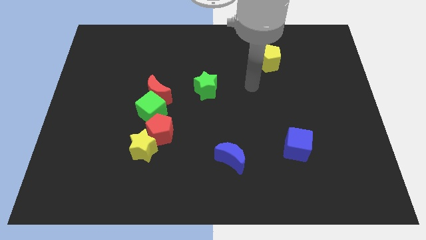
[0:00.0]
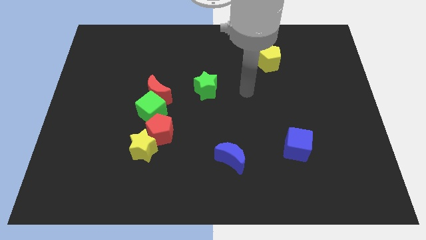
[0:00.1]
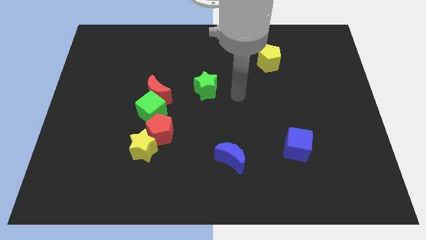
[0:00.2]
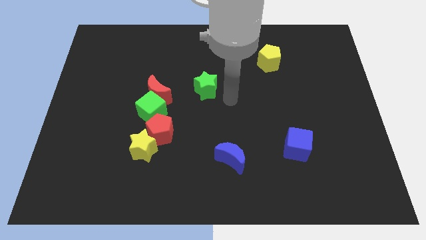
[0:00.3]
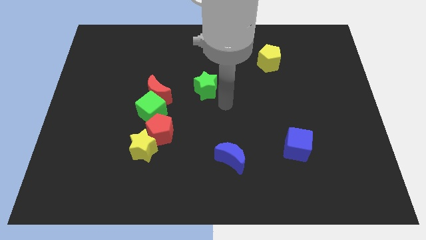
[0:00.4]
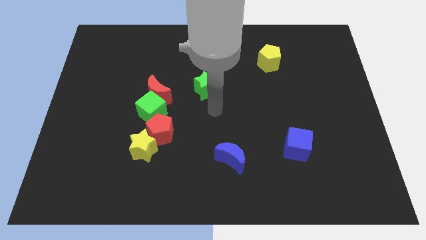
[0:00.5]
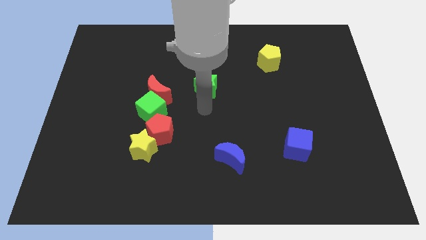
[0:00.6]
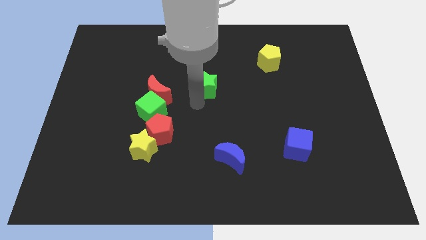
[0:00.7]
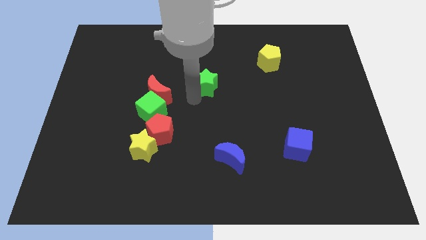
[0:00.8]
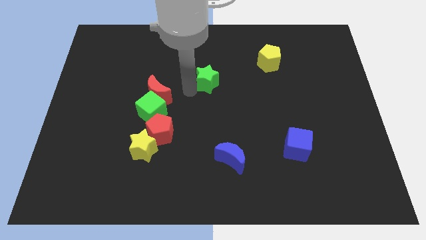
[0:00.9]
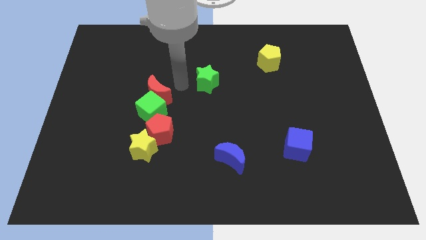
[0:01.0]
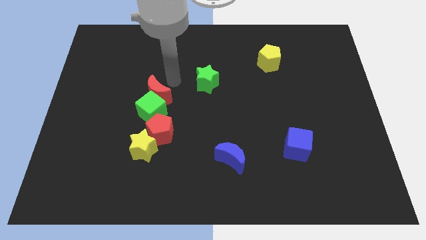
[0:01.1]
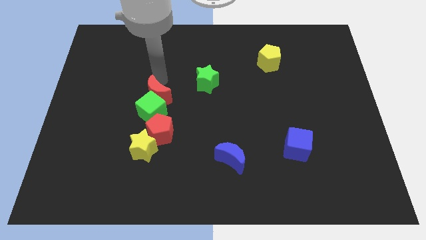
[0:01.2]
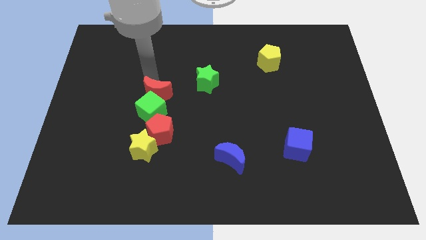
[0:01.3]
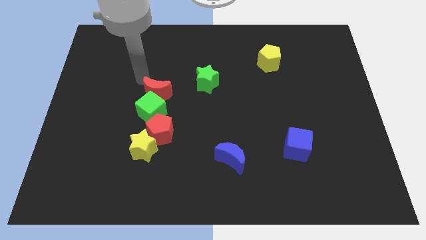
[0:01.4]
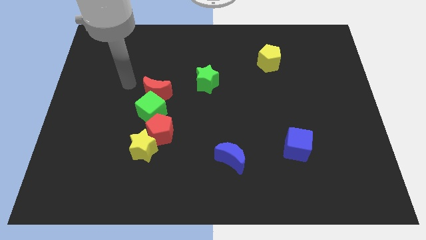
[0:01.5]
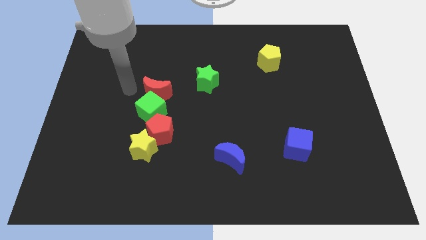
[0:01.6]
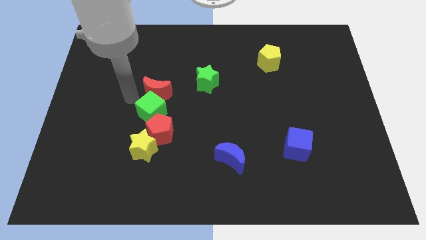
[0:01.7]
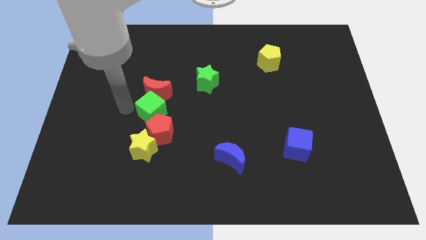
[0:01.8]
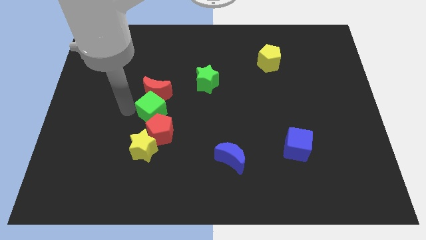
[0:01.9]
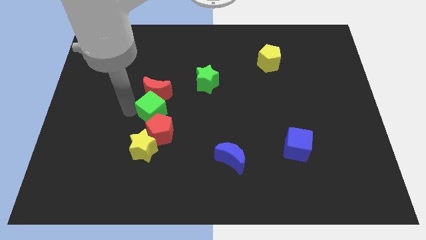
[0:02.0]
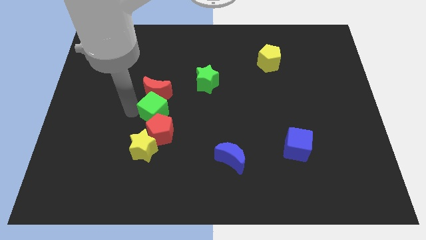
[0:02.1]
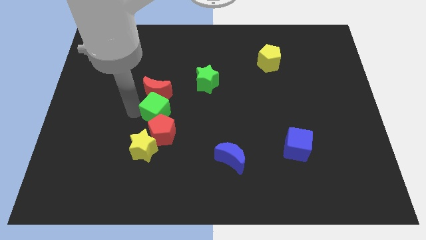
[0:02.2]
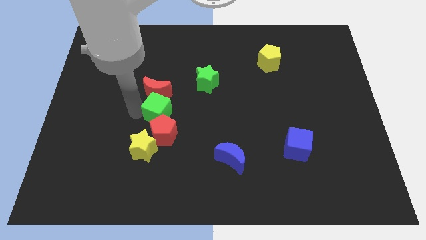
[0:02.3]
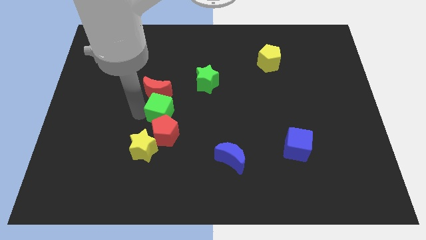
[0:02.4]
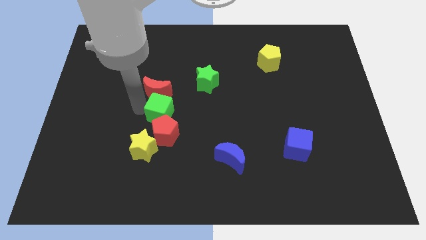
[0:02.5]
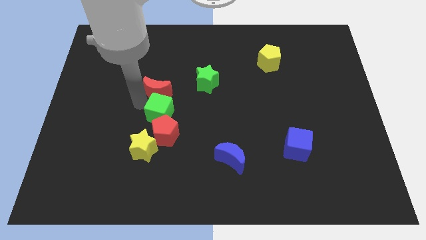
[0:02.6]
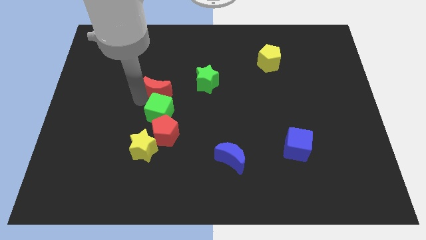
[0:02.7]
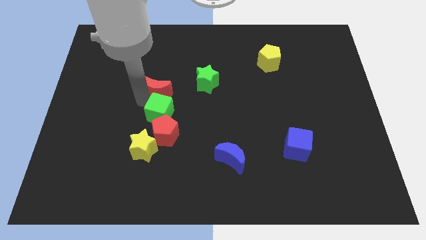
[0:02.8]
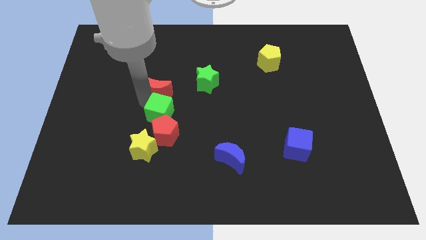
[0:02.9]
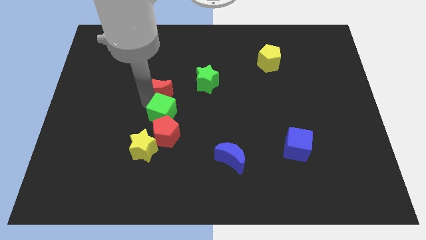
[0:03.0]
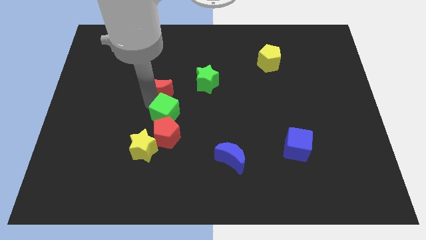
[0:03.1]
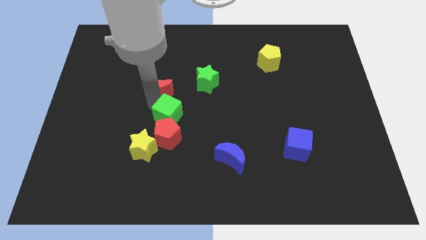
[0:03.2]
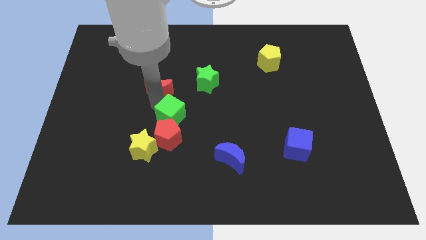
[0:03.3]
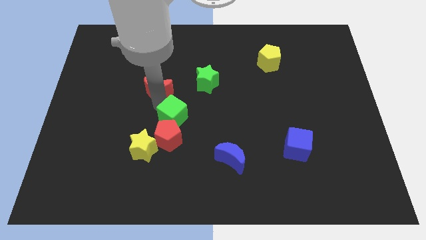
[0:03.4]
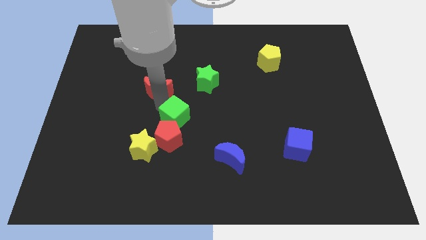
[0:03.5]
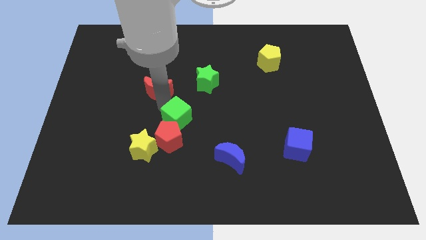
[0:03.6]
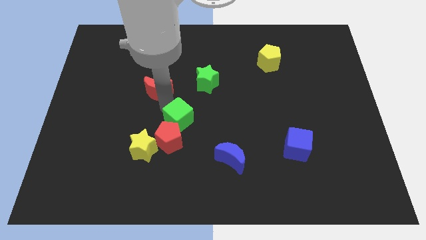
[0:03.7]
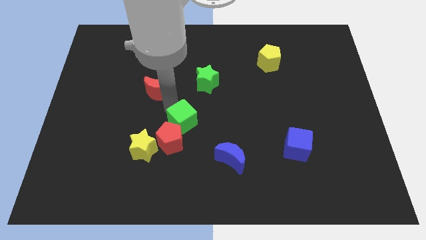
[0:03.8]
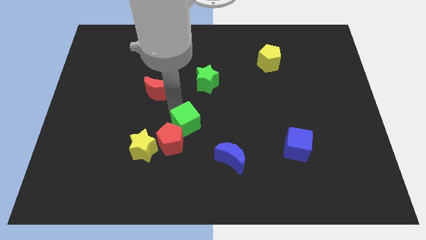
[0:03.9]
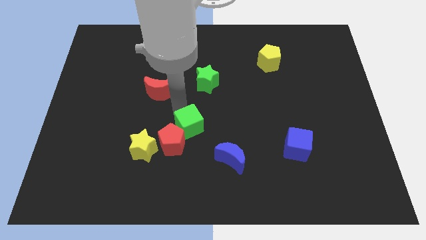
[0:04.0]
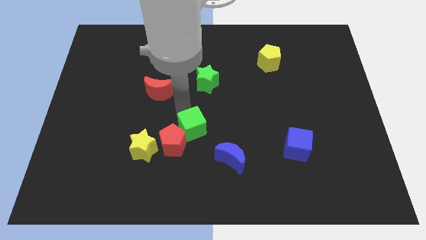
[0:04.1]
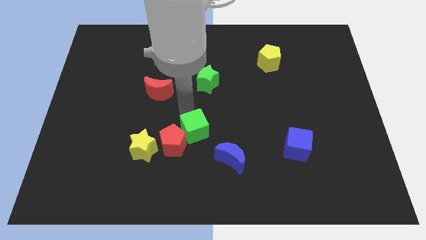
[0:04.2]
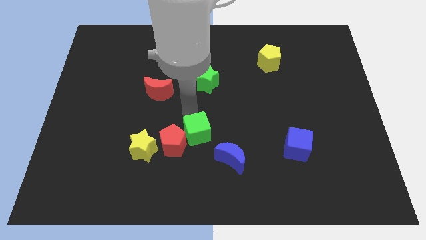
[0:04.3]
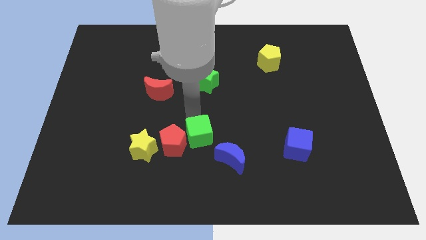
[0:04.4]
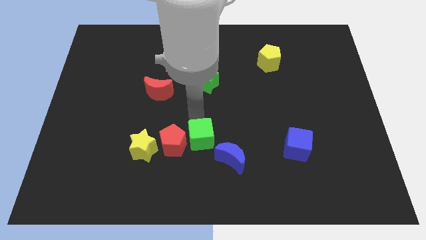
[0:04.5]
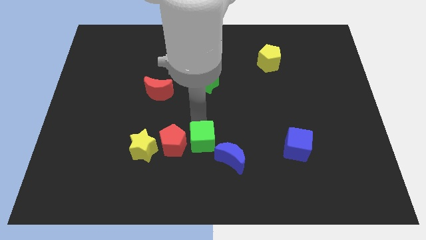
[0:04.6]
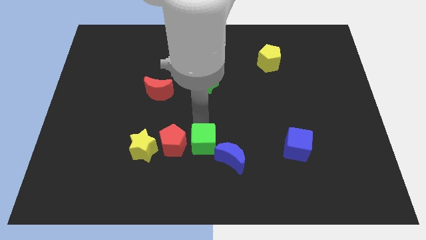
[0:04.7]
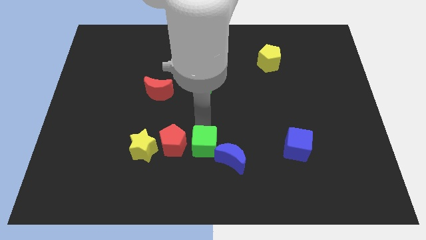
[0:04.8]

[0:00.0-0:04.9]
push the green cube to the bottom right side of the red pentagon

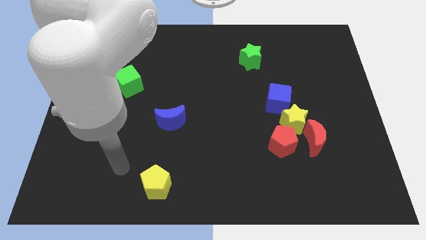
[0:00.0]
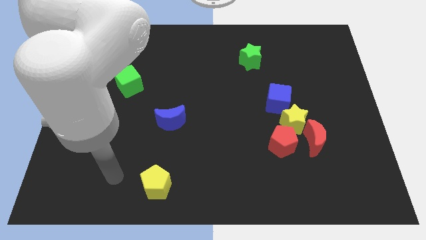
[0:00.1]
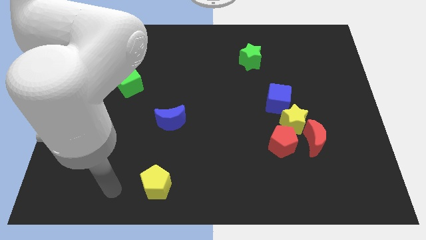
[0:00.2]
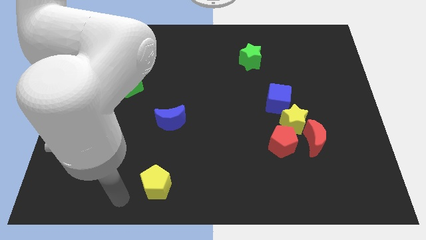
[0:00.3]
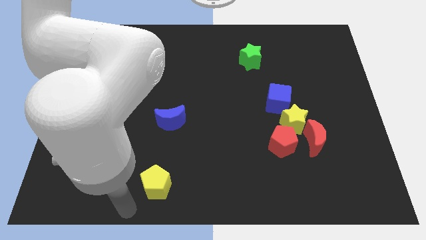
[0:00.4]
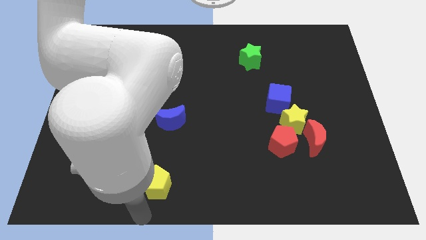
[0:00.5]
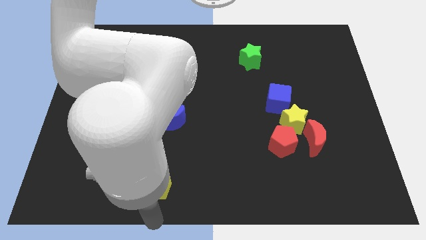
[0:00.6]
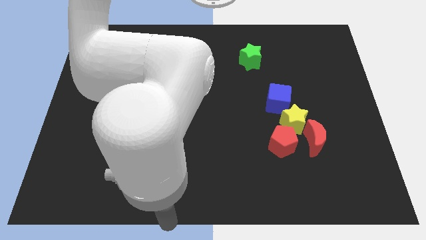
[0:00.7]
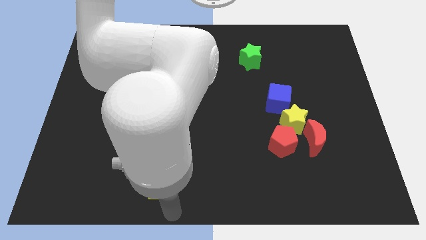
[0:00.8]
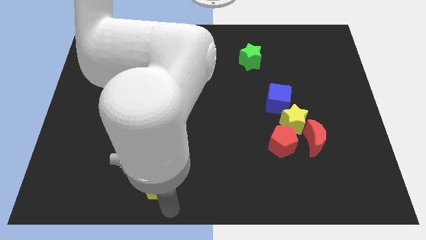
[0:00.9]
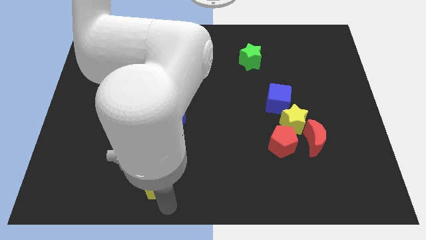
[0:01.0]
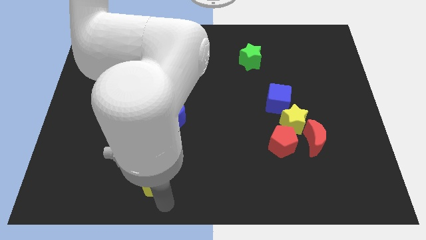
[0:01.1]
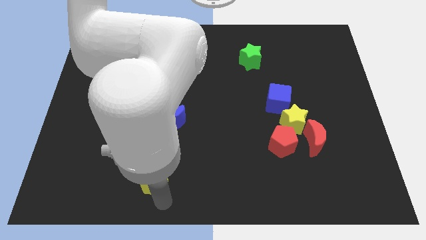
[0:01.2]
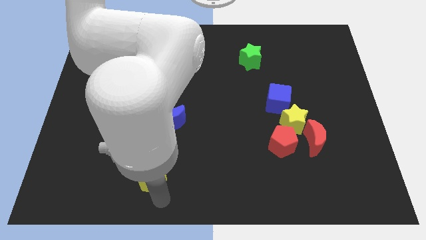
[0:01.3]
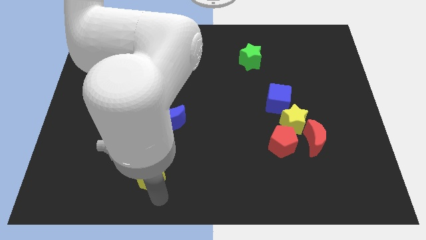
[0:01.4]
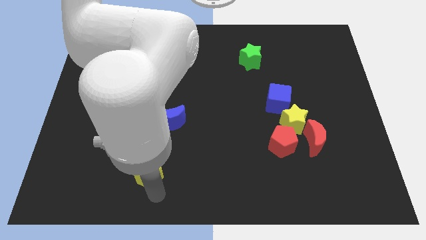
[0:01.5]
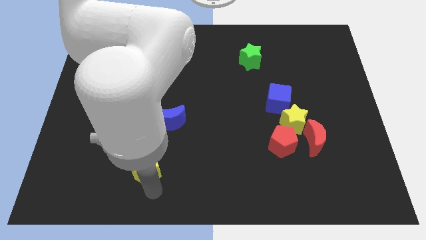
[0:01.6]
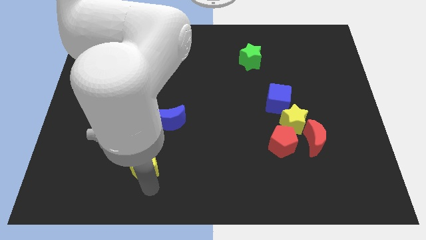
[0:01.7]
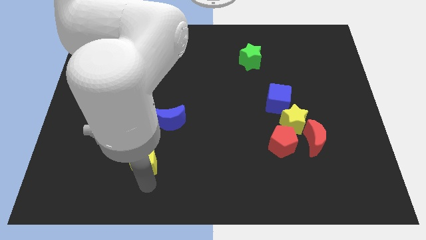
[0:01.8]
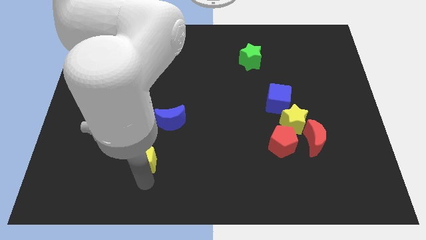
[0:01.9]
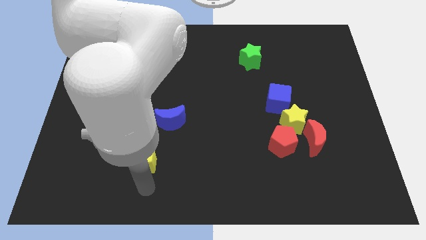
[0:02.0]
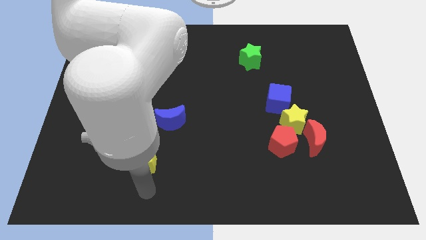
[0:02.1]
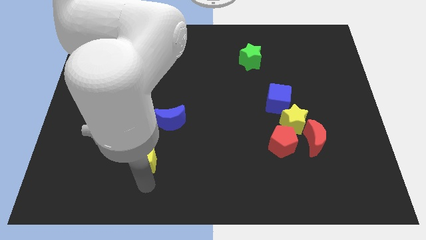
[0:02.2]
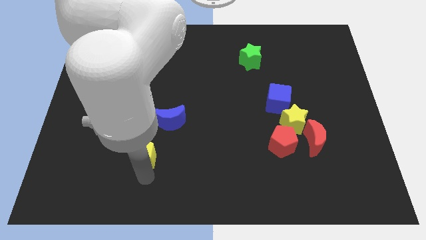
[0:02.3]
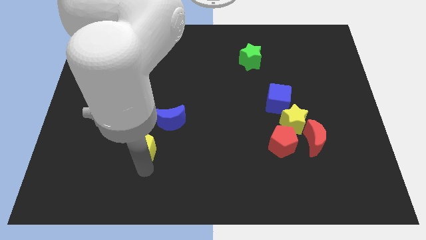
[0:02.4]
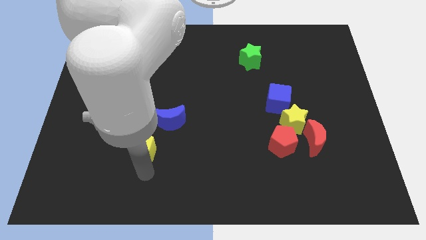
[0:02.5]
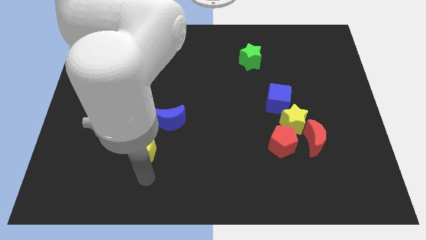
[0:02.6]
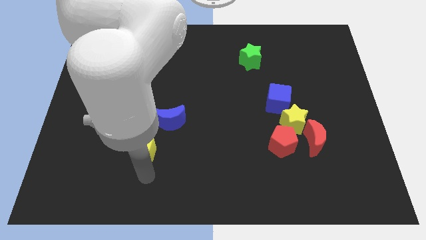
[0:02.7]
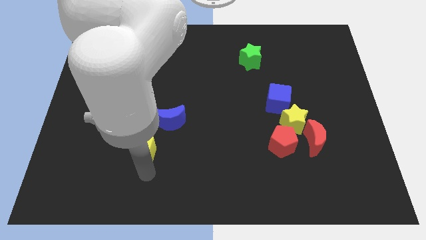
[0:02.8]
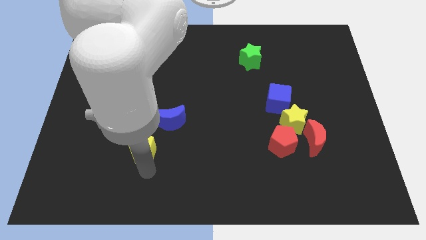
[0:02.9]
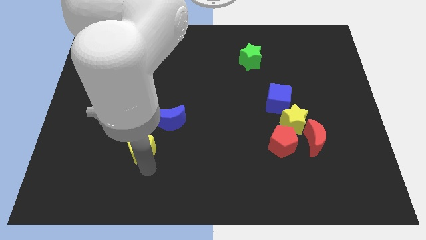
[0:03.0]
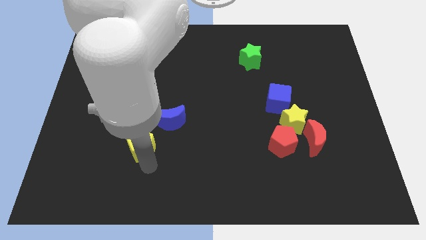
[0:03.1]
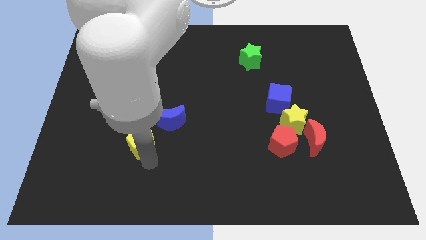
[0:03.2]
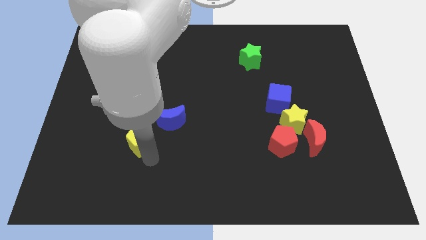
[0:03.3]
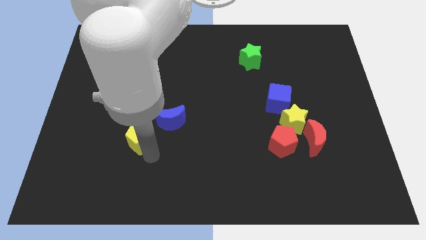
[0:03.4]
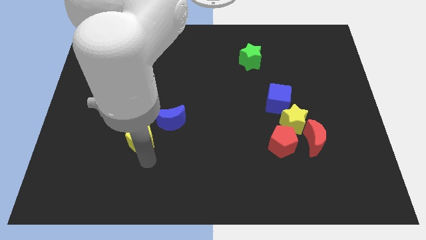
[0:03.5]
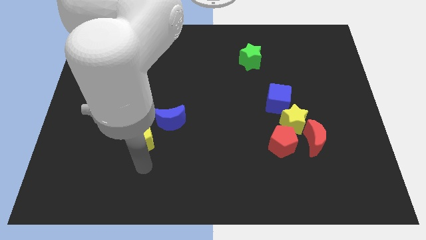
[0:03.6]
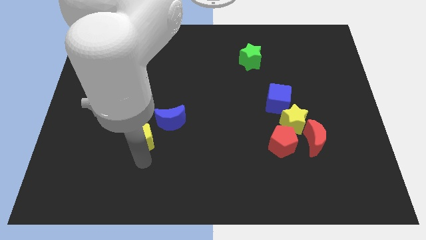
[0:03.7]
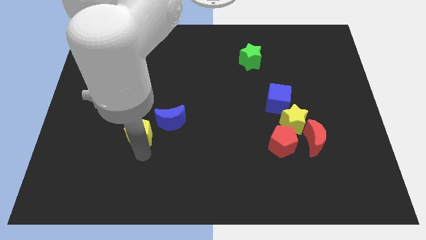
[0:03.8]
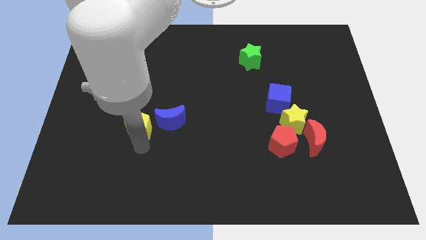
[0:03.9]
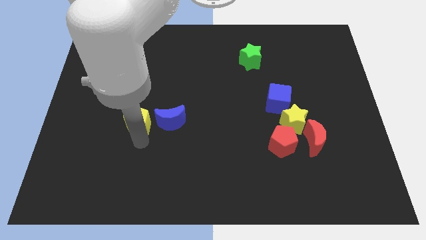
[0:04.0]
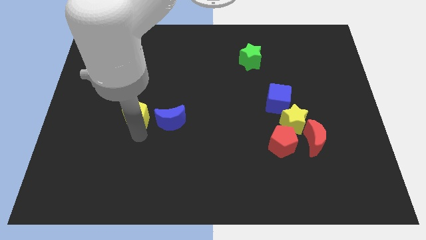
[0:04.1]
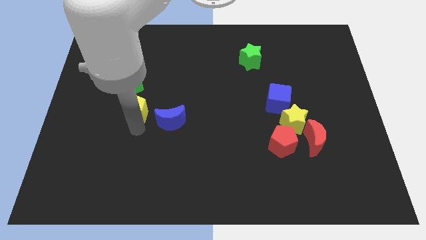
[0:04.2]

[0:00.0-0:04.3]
slide the yellow pentagon diagonally down and to the right of the green cube
